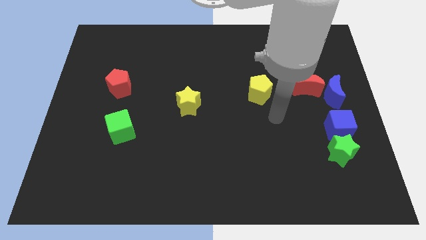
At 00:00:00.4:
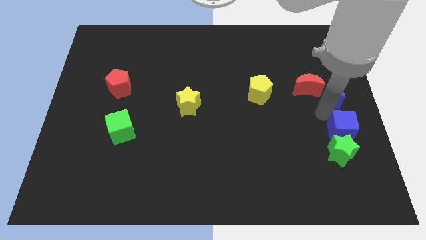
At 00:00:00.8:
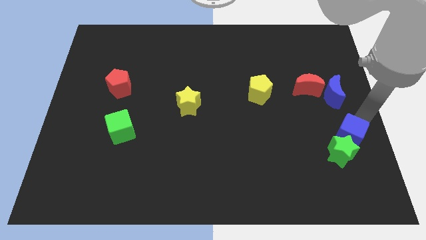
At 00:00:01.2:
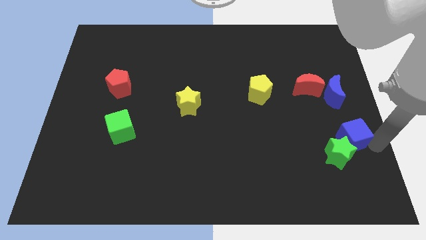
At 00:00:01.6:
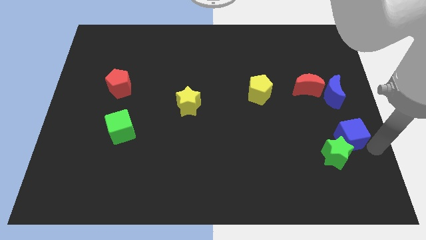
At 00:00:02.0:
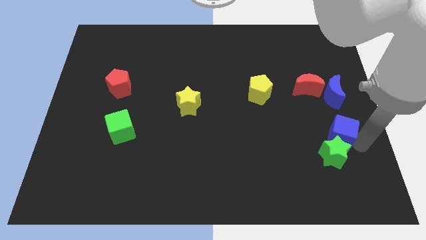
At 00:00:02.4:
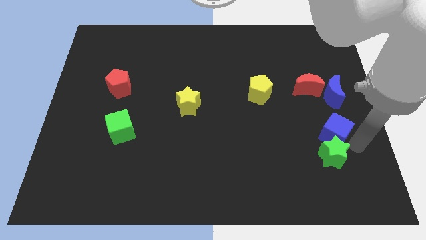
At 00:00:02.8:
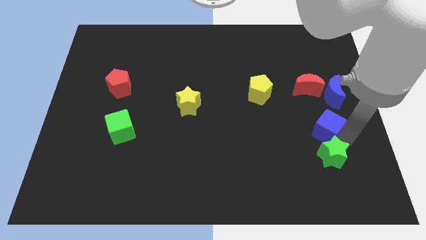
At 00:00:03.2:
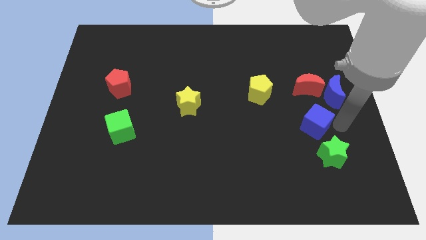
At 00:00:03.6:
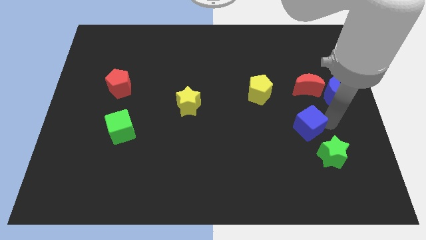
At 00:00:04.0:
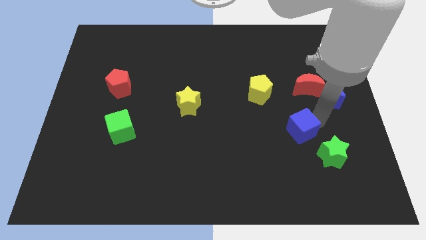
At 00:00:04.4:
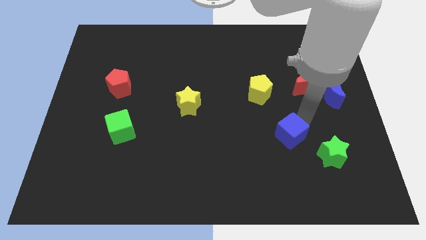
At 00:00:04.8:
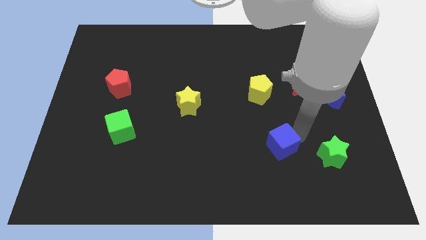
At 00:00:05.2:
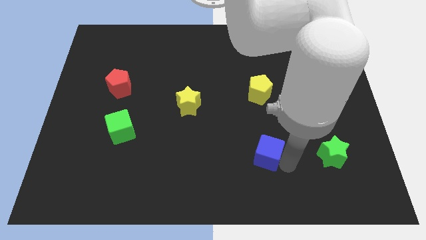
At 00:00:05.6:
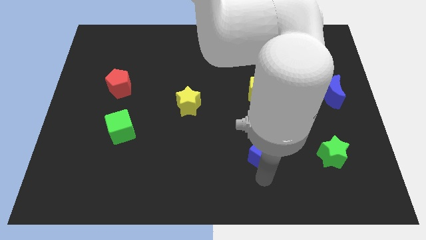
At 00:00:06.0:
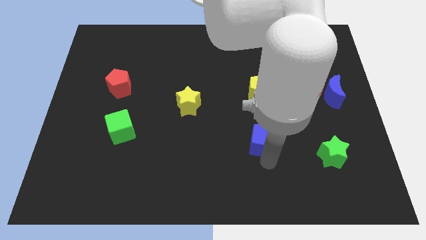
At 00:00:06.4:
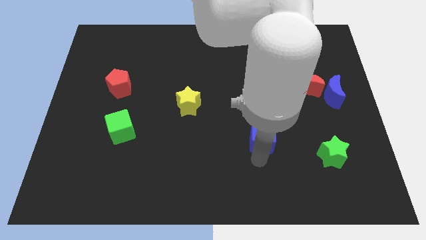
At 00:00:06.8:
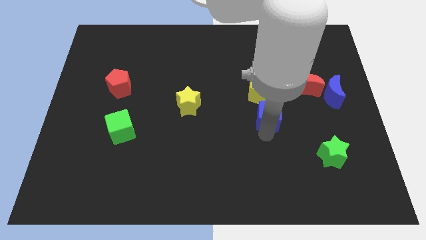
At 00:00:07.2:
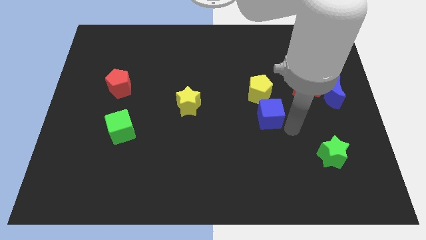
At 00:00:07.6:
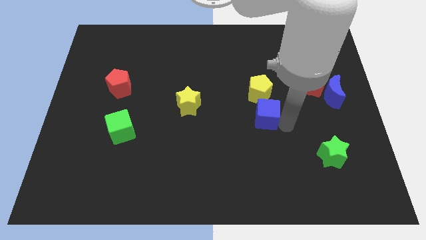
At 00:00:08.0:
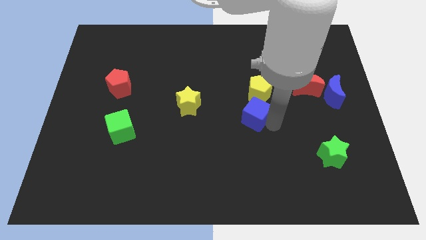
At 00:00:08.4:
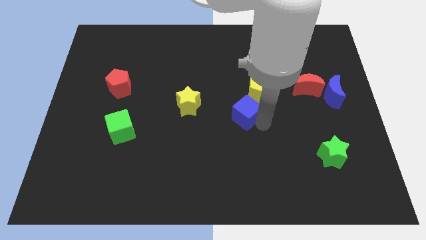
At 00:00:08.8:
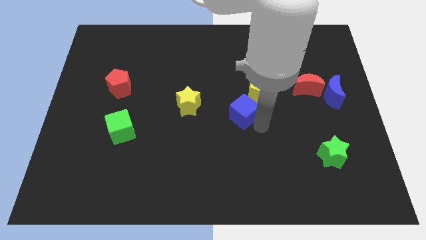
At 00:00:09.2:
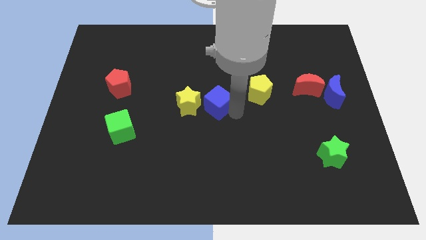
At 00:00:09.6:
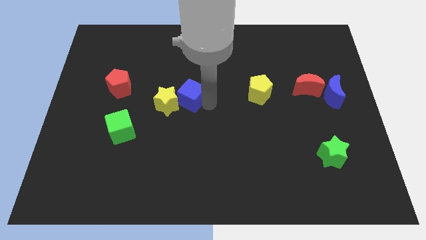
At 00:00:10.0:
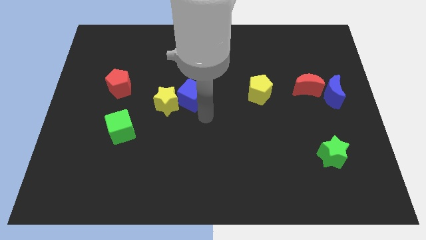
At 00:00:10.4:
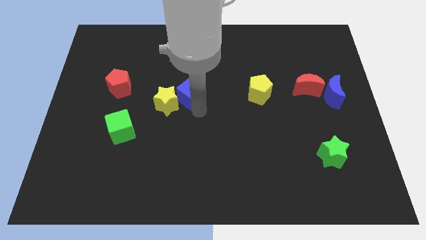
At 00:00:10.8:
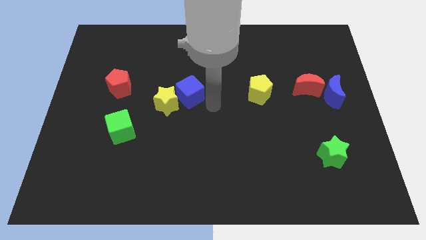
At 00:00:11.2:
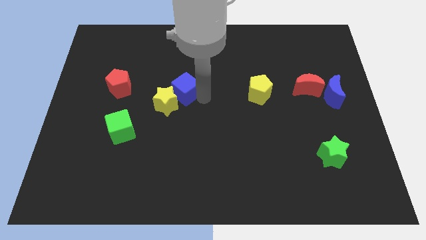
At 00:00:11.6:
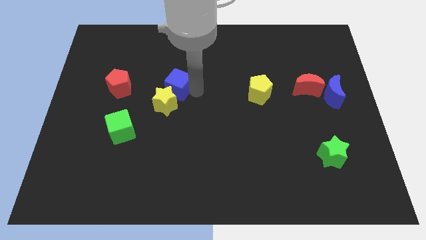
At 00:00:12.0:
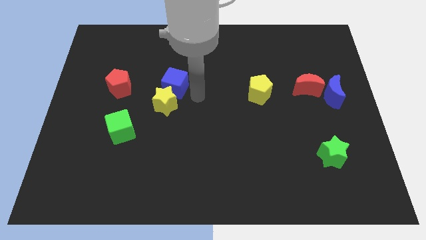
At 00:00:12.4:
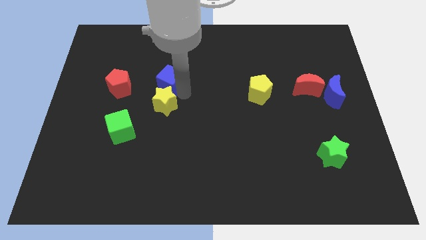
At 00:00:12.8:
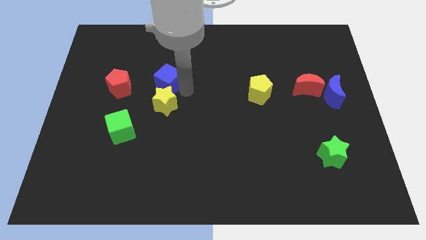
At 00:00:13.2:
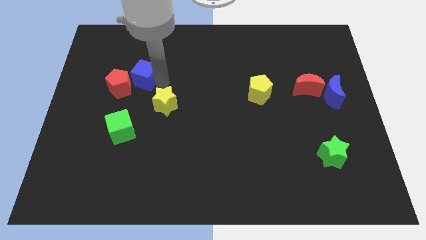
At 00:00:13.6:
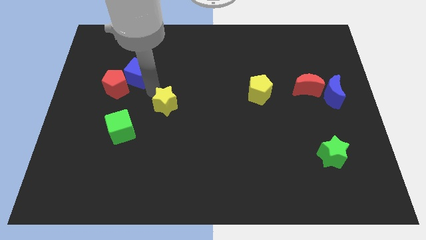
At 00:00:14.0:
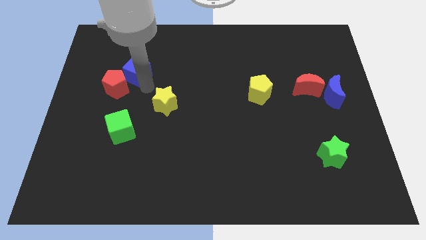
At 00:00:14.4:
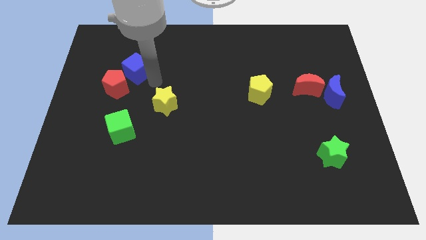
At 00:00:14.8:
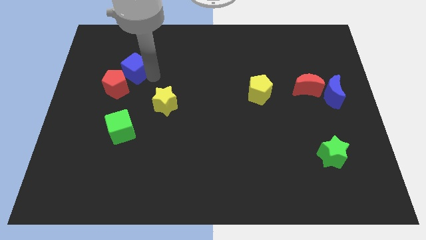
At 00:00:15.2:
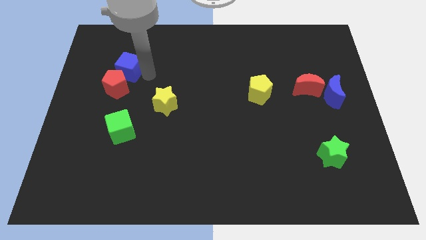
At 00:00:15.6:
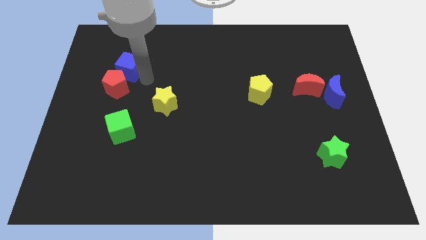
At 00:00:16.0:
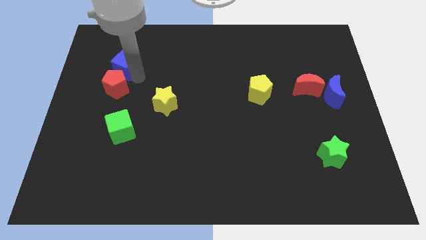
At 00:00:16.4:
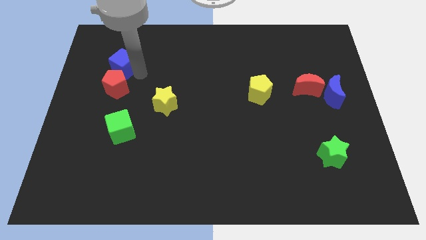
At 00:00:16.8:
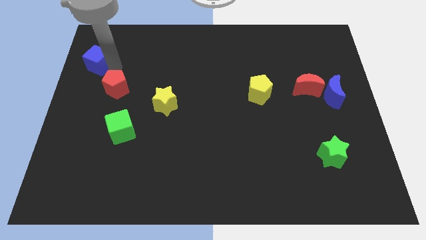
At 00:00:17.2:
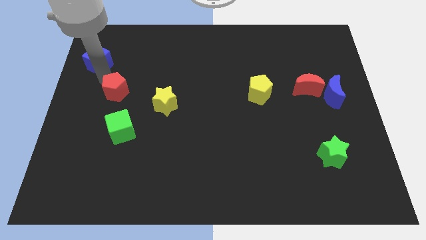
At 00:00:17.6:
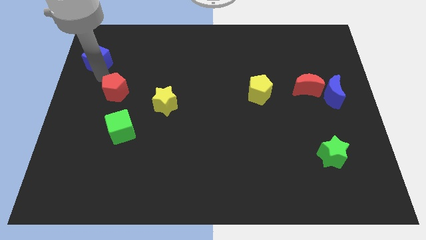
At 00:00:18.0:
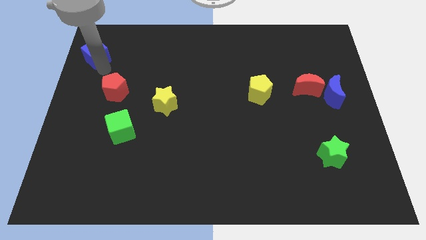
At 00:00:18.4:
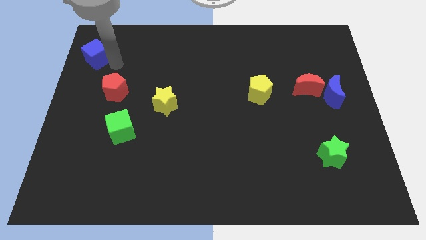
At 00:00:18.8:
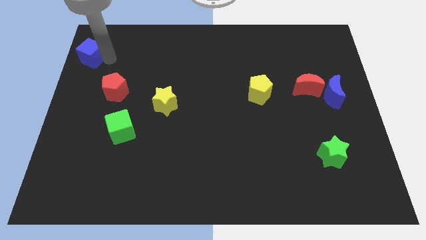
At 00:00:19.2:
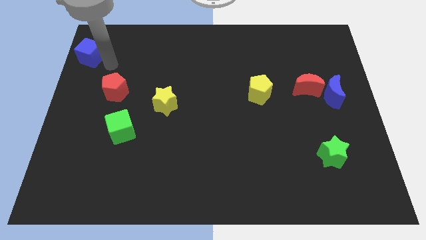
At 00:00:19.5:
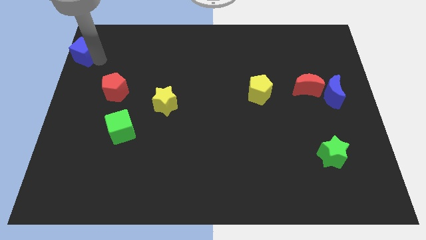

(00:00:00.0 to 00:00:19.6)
put the blue cube to the upper left corner

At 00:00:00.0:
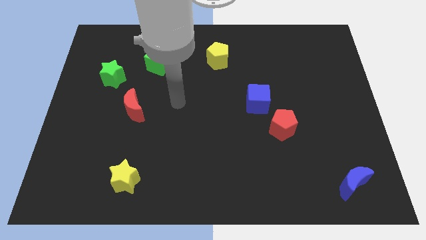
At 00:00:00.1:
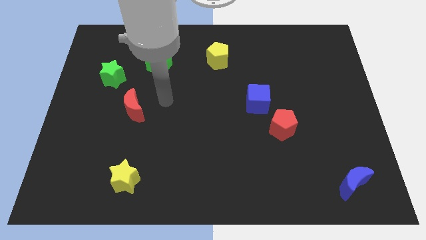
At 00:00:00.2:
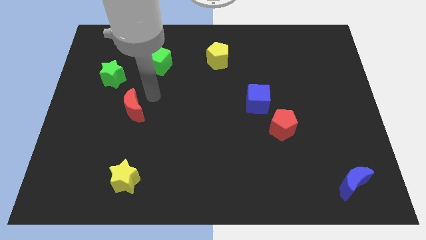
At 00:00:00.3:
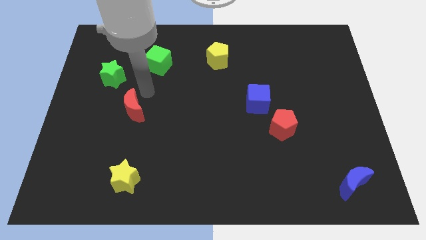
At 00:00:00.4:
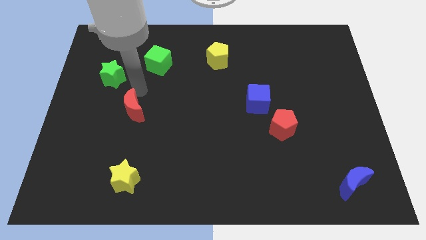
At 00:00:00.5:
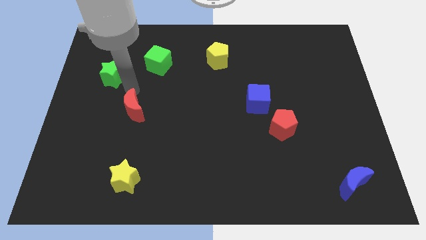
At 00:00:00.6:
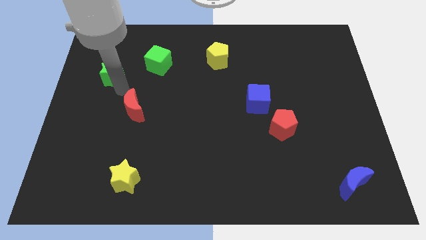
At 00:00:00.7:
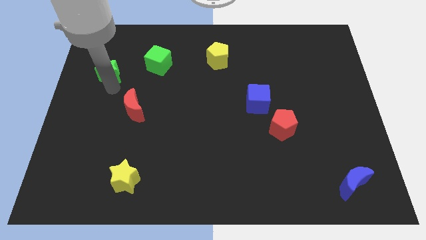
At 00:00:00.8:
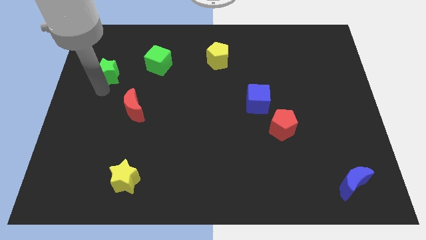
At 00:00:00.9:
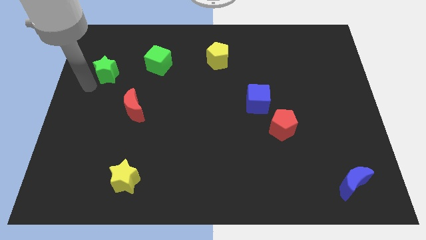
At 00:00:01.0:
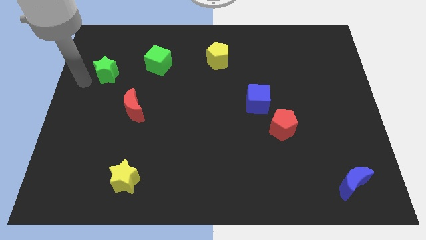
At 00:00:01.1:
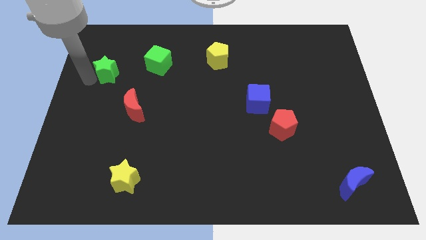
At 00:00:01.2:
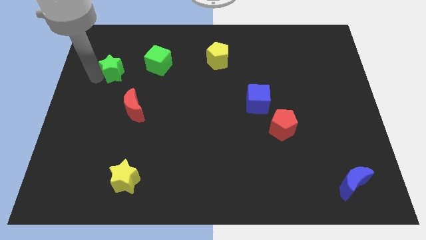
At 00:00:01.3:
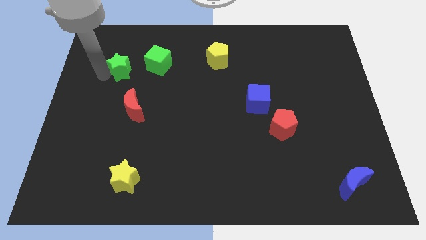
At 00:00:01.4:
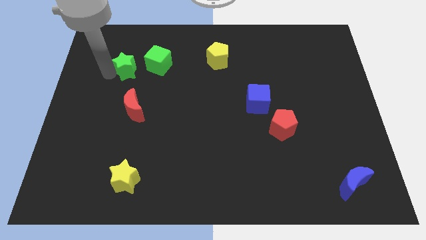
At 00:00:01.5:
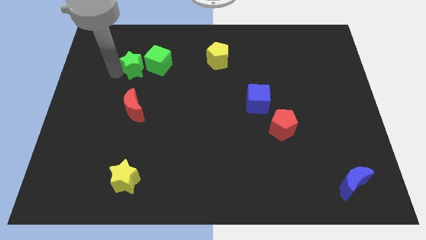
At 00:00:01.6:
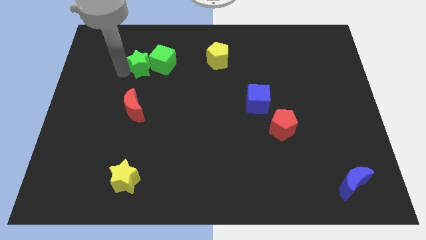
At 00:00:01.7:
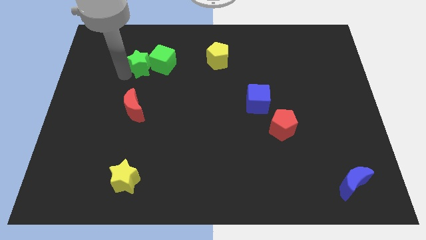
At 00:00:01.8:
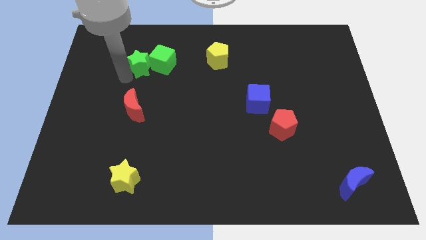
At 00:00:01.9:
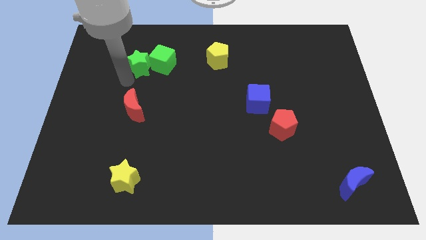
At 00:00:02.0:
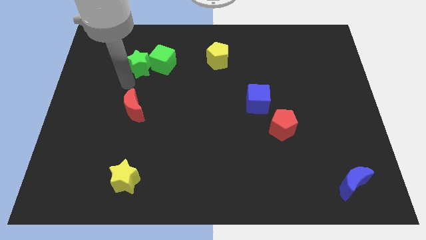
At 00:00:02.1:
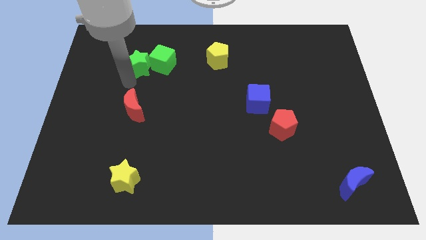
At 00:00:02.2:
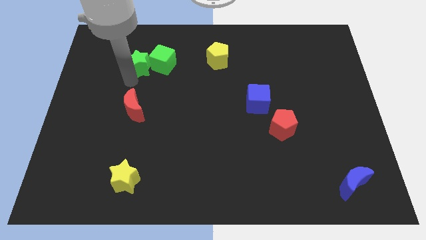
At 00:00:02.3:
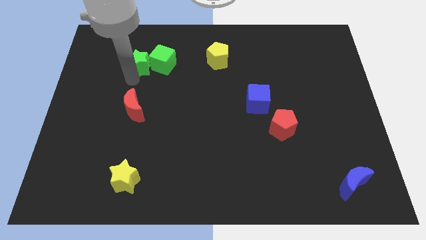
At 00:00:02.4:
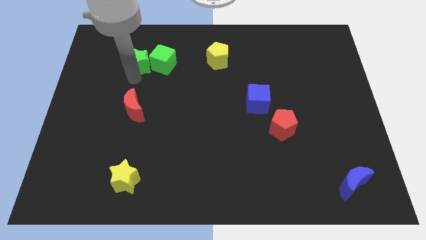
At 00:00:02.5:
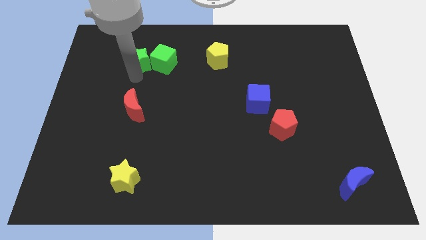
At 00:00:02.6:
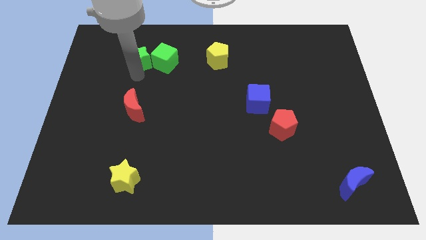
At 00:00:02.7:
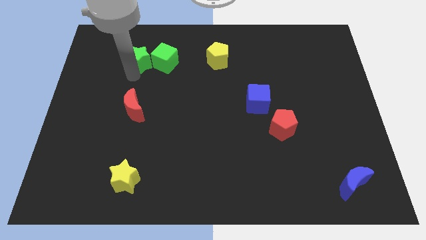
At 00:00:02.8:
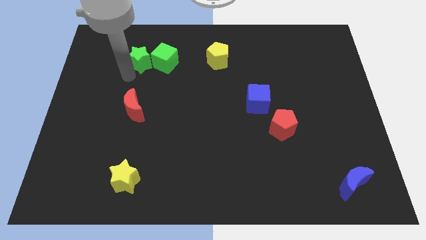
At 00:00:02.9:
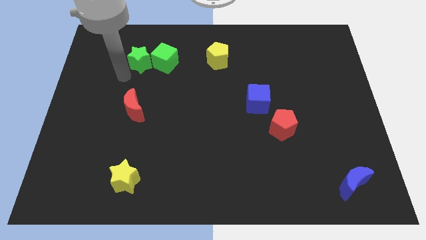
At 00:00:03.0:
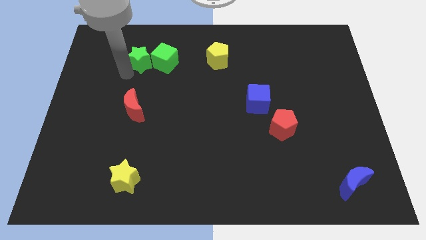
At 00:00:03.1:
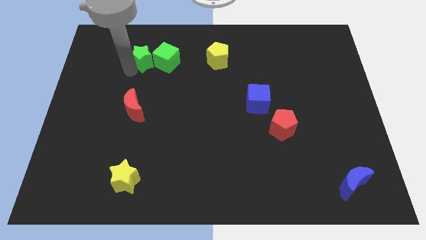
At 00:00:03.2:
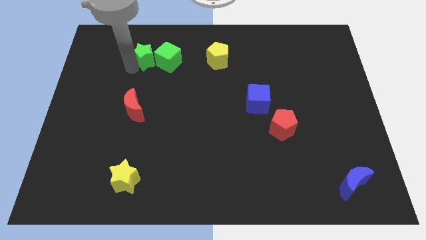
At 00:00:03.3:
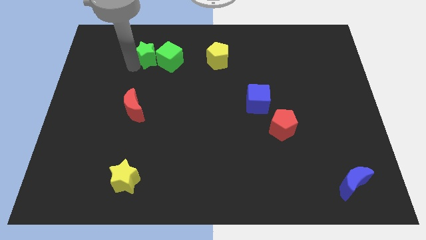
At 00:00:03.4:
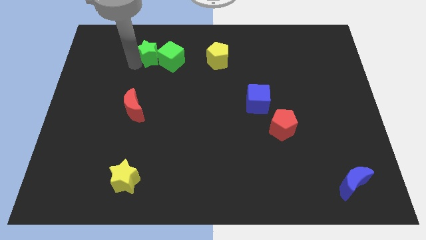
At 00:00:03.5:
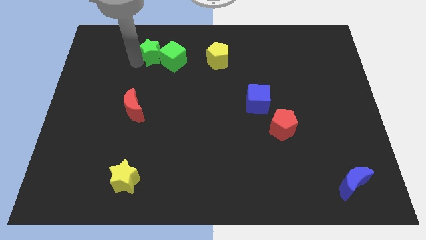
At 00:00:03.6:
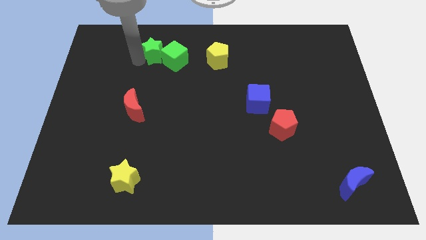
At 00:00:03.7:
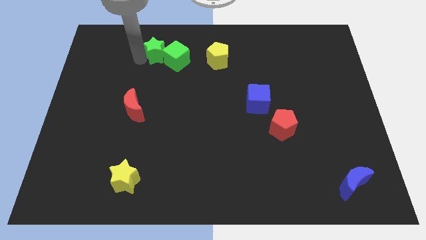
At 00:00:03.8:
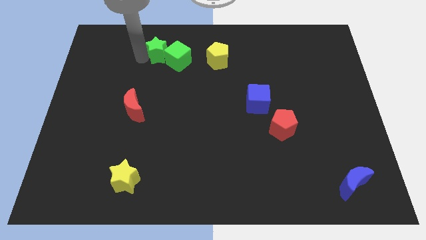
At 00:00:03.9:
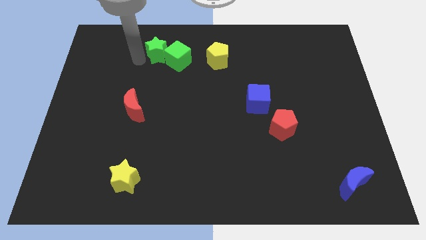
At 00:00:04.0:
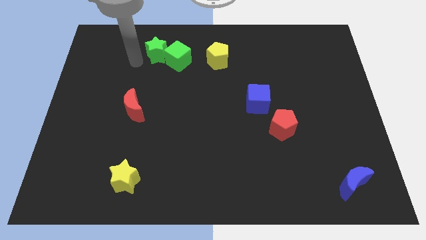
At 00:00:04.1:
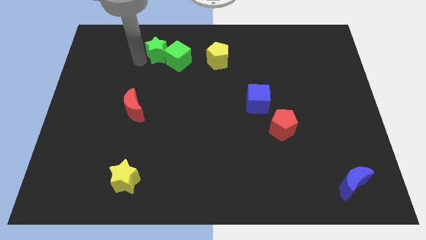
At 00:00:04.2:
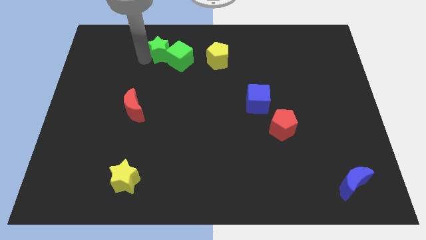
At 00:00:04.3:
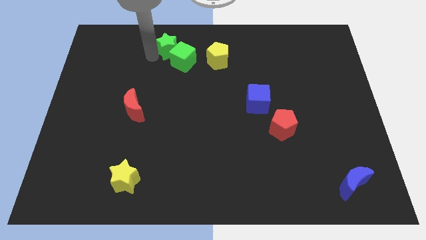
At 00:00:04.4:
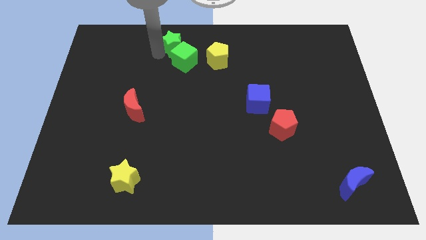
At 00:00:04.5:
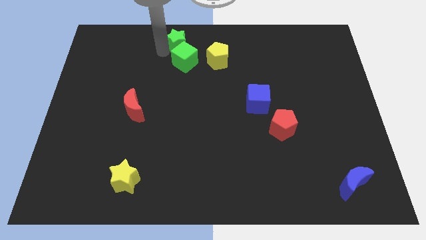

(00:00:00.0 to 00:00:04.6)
slide the green star to the top
